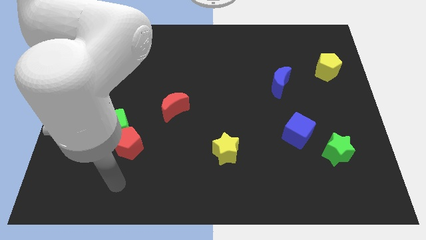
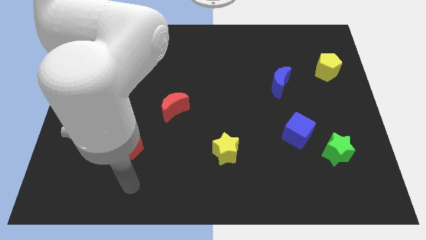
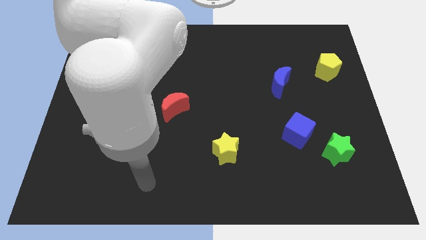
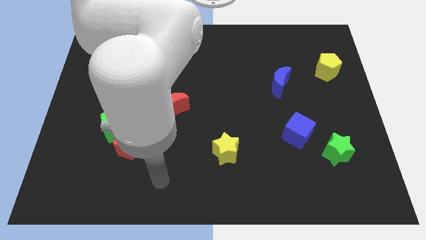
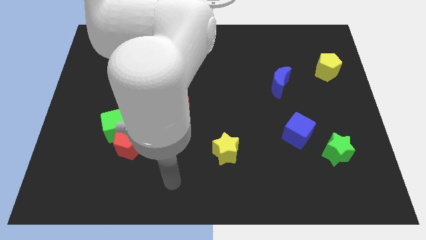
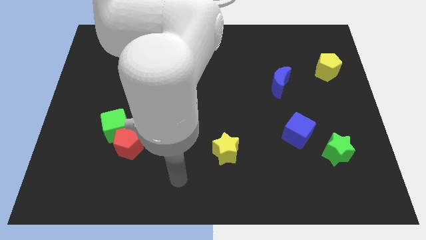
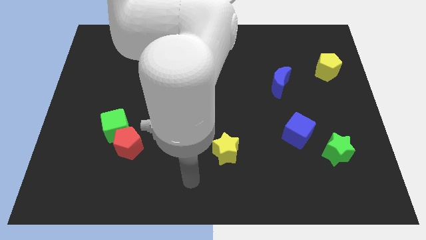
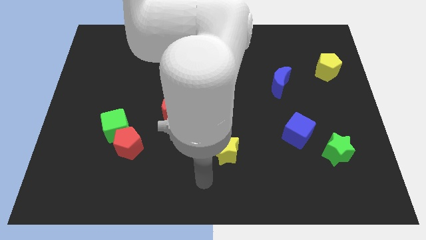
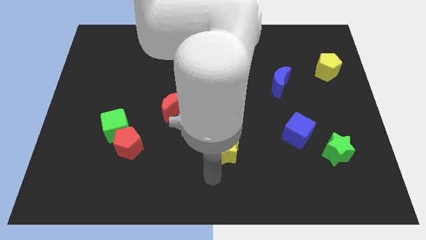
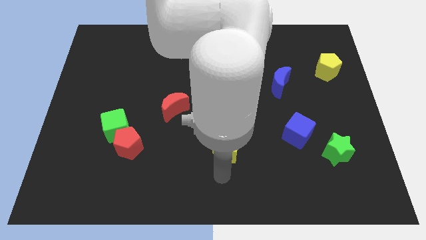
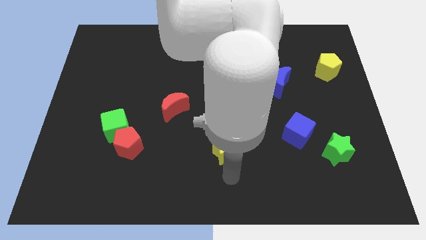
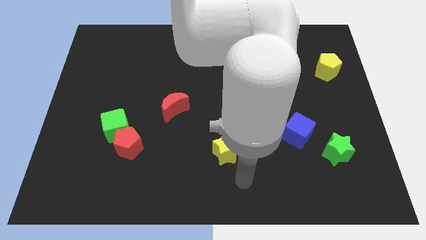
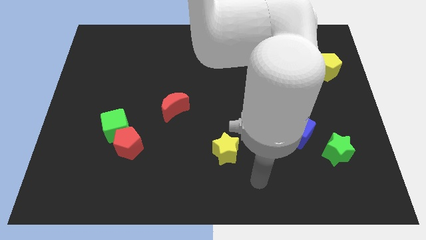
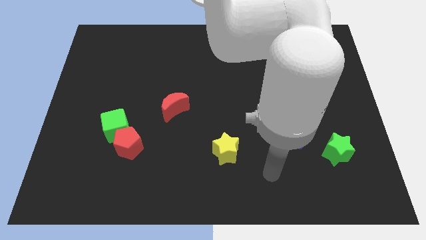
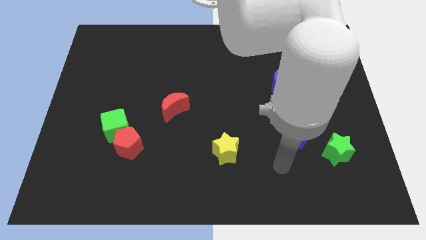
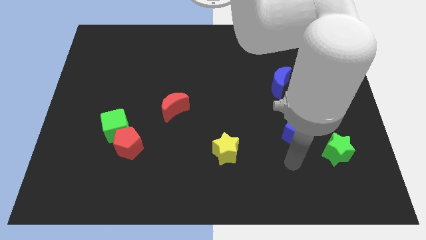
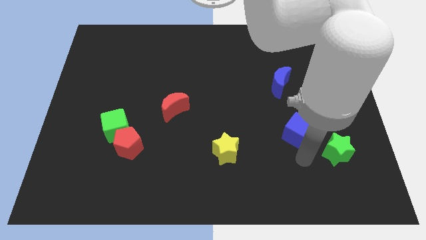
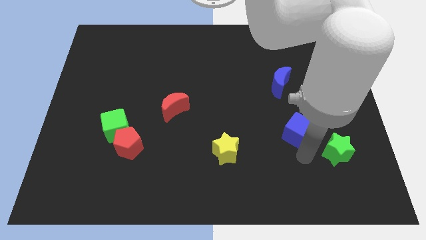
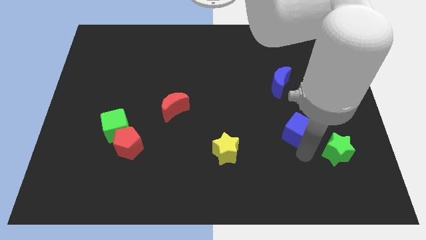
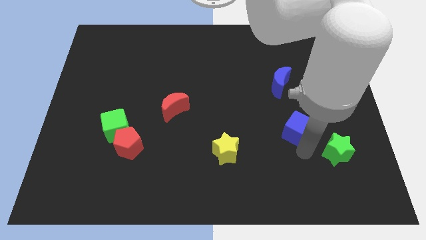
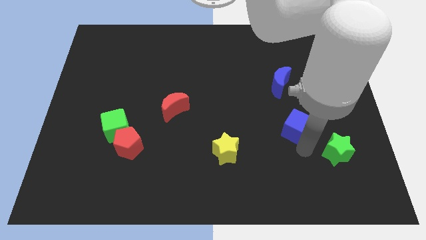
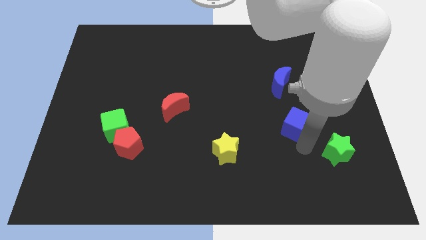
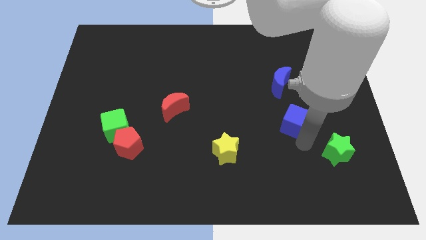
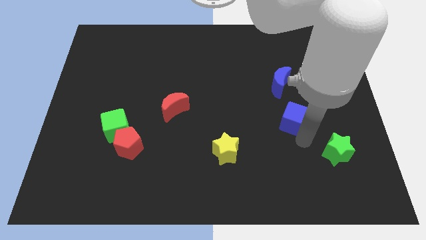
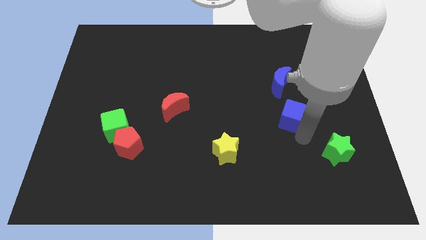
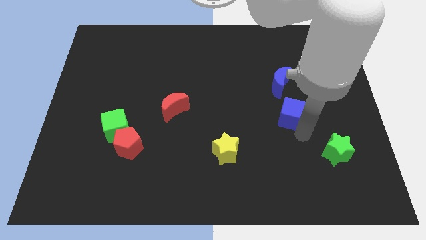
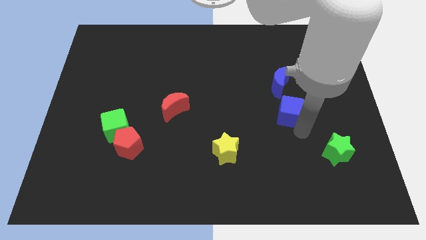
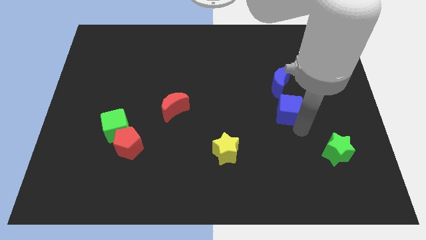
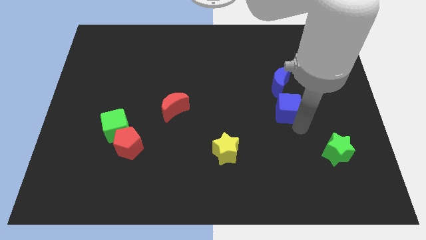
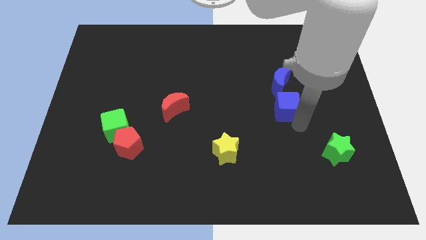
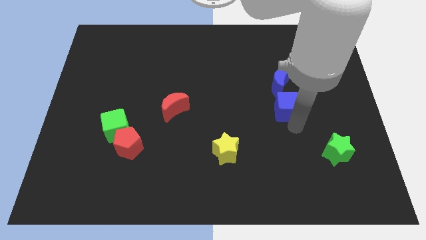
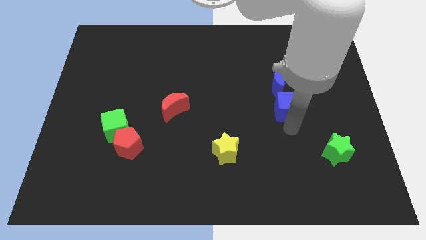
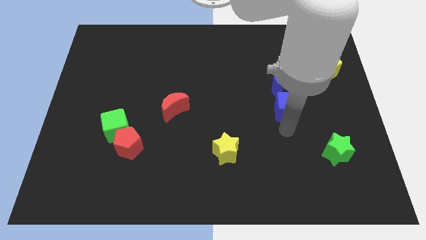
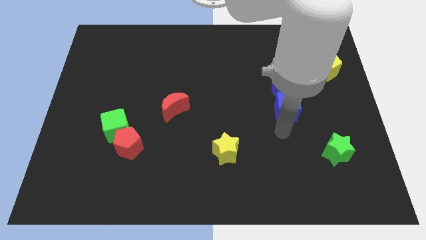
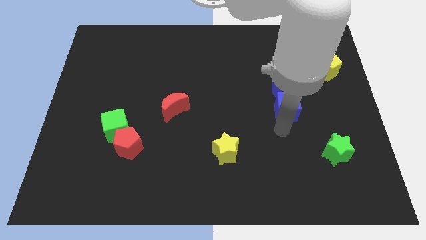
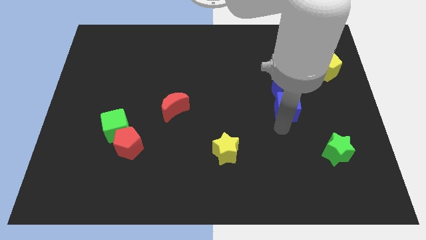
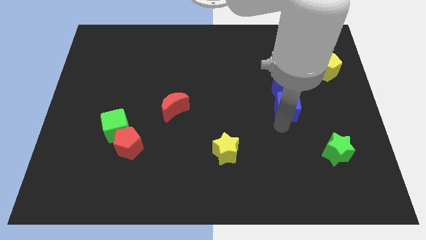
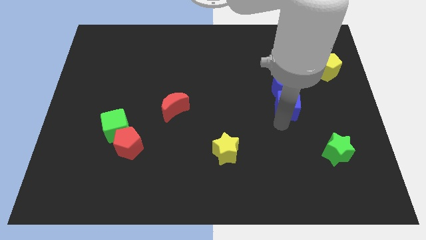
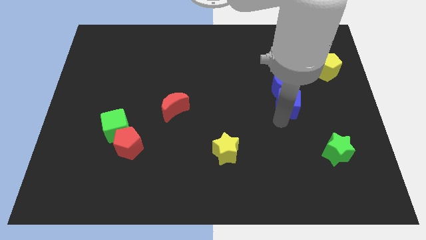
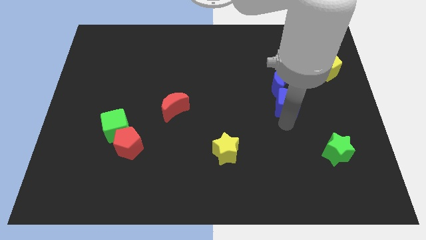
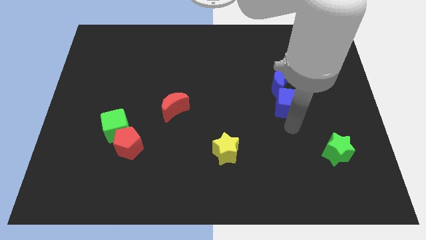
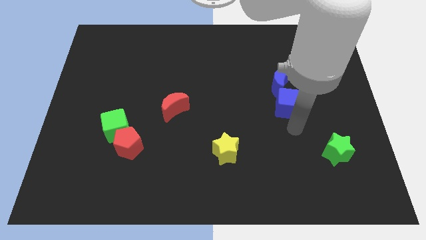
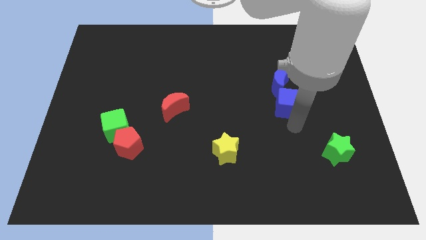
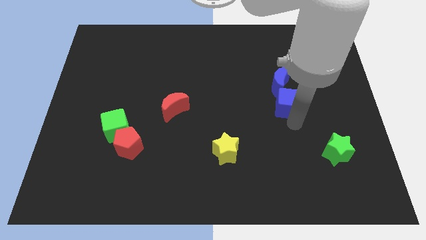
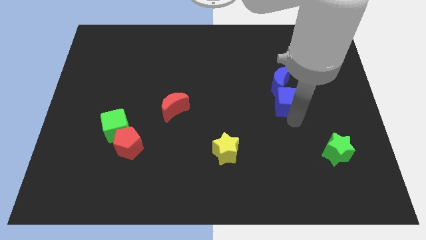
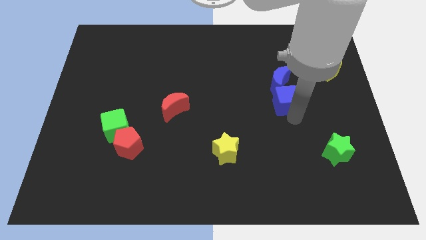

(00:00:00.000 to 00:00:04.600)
move the blue cube towards the blue moon

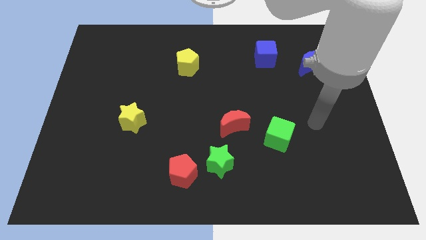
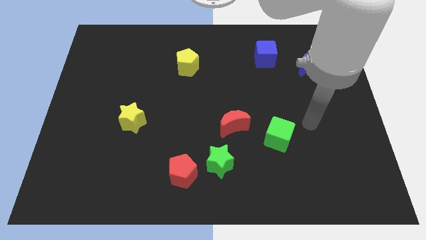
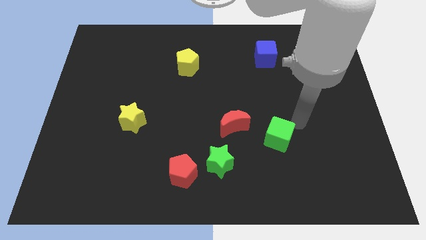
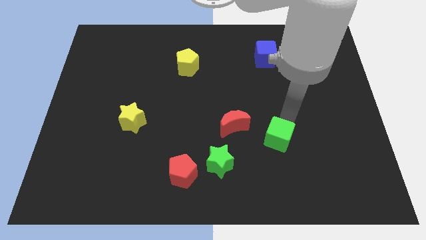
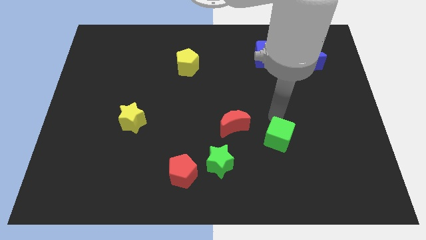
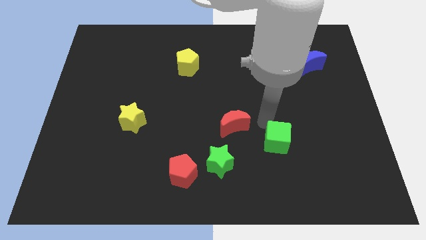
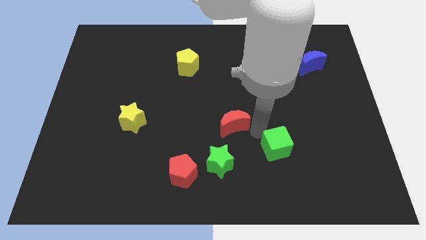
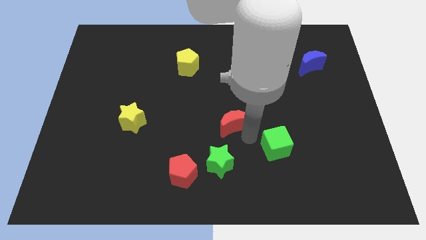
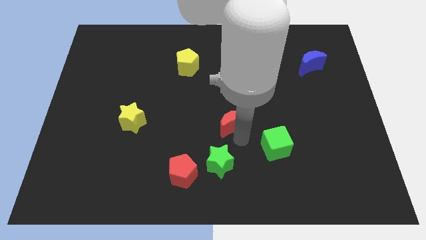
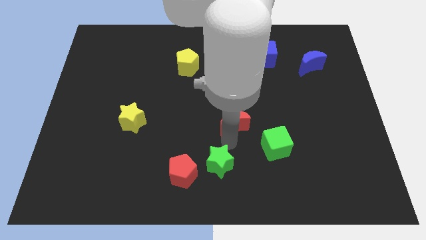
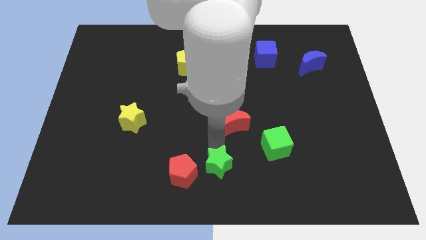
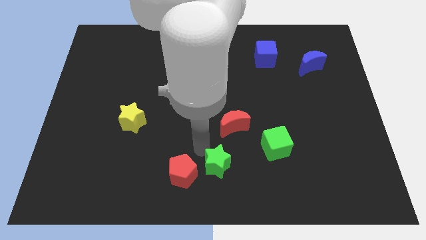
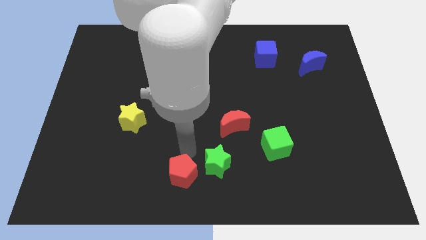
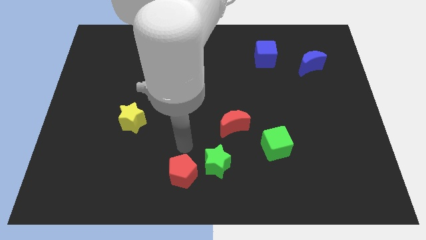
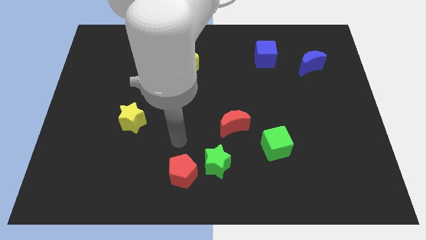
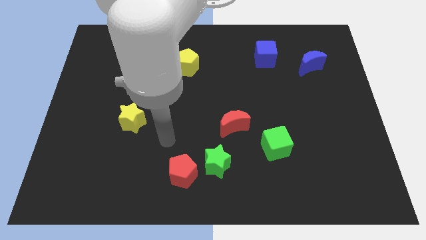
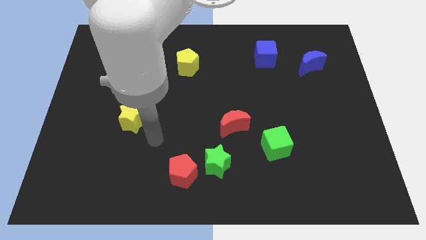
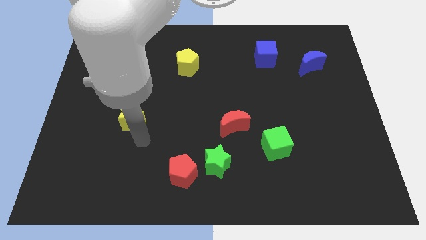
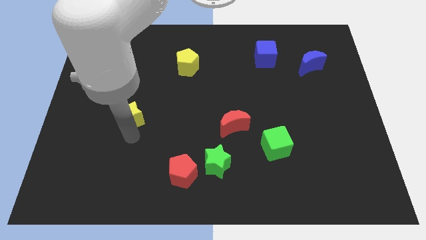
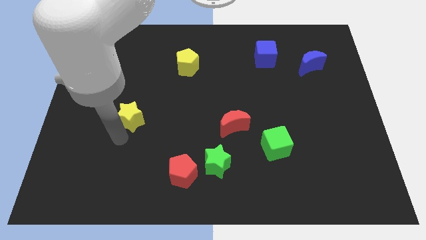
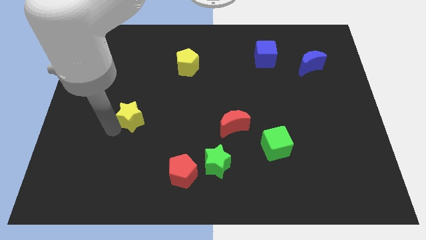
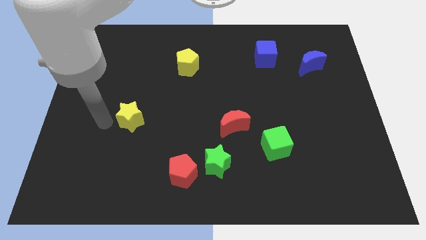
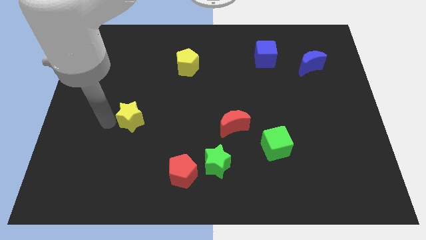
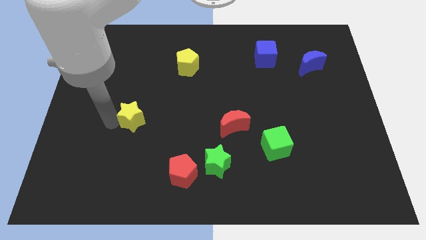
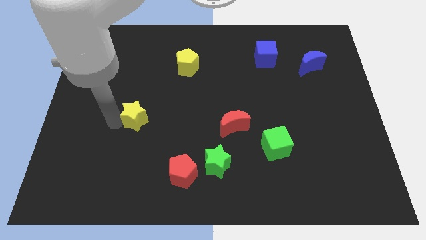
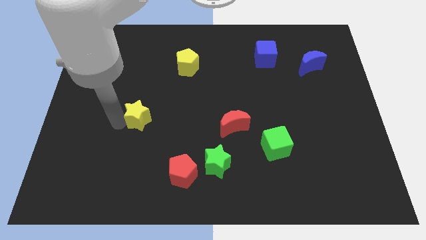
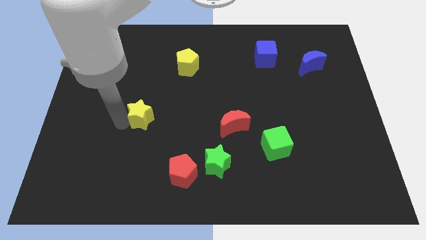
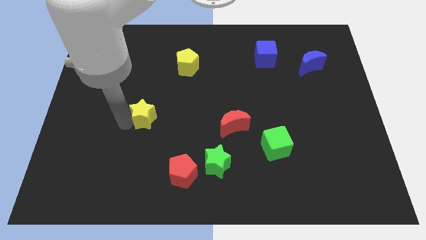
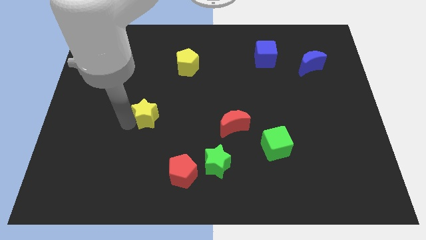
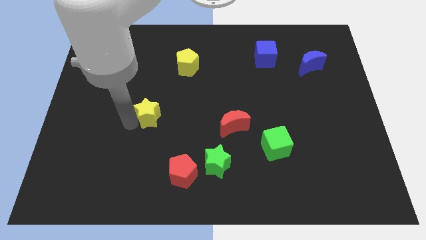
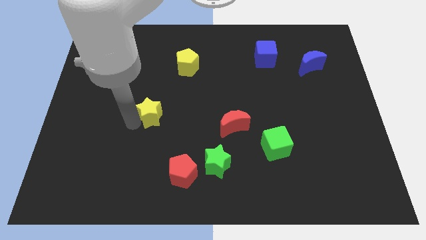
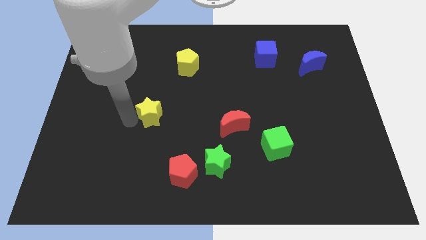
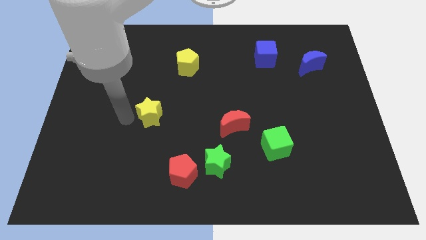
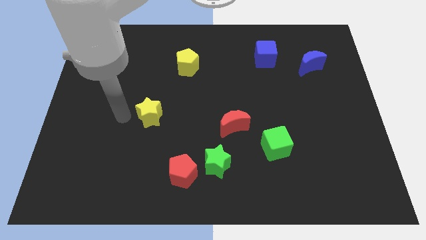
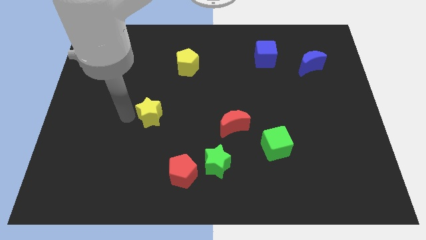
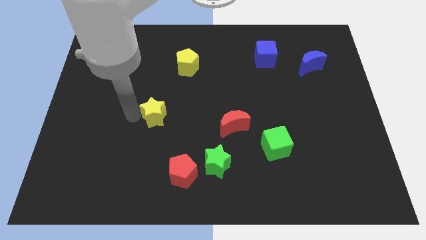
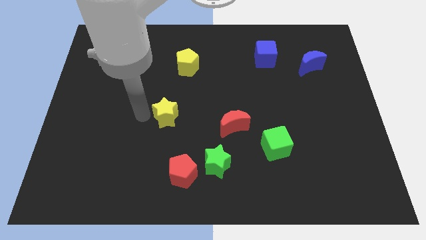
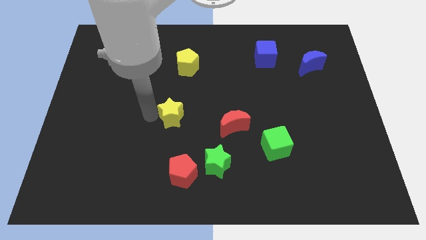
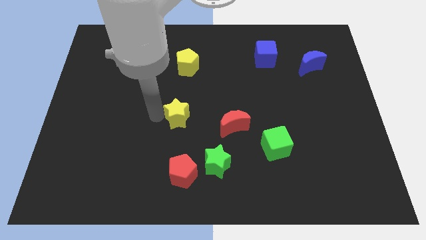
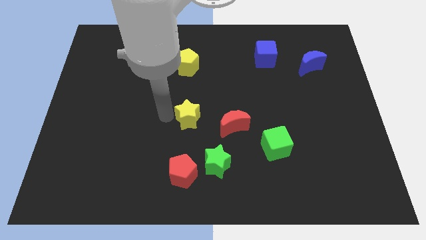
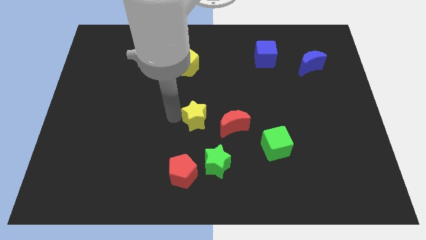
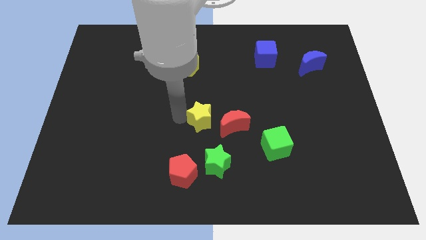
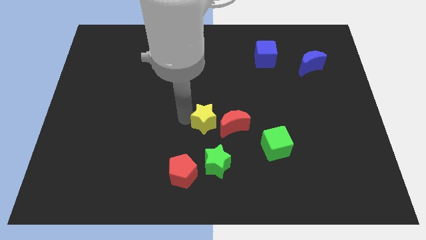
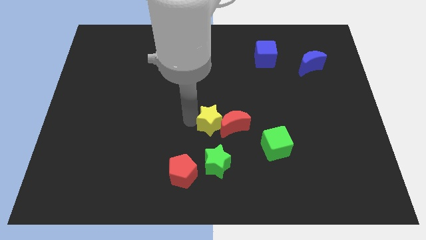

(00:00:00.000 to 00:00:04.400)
put the yellow star towards the red moon
